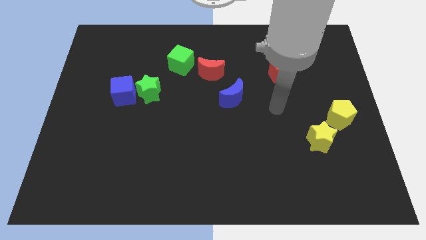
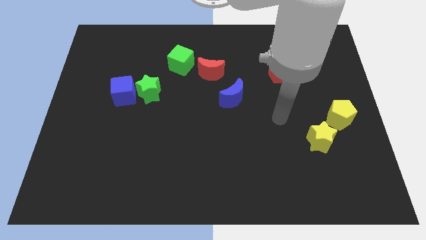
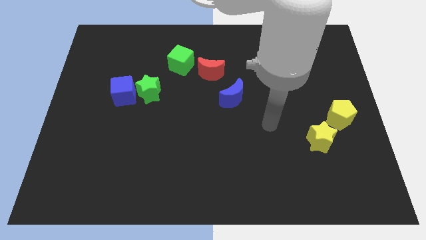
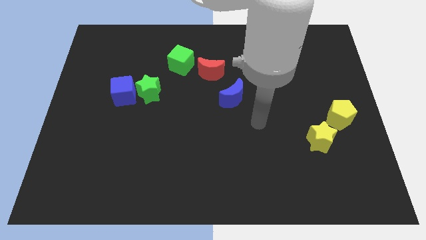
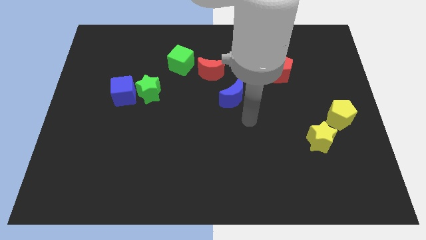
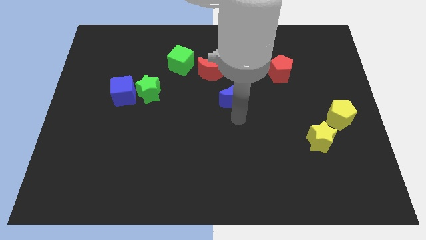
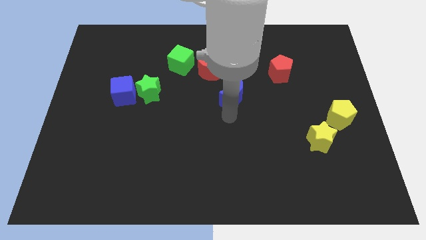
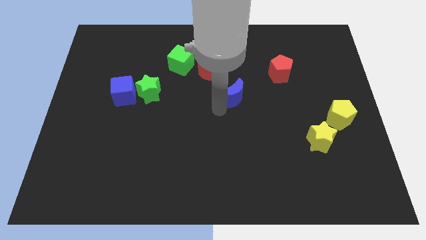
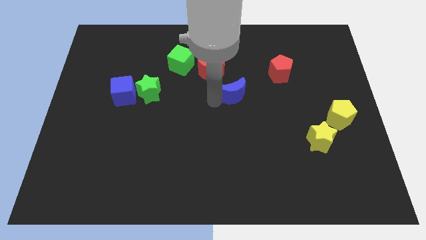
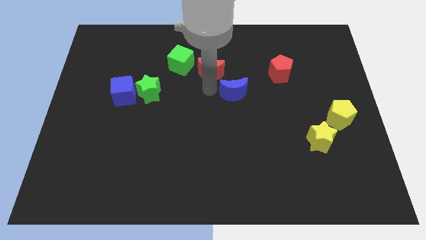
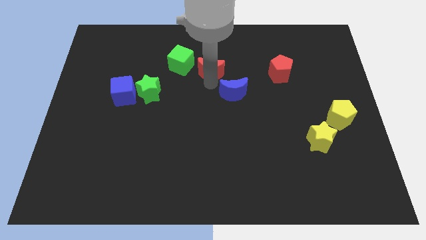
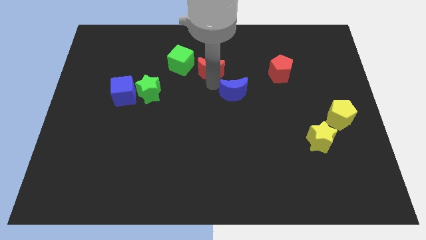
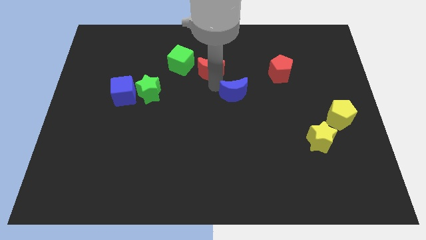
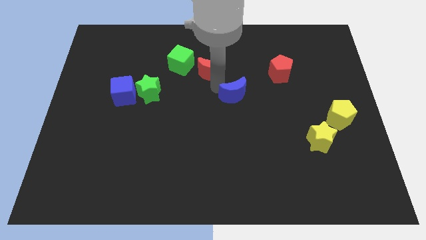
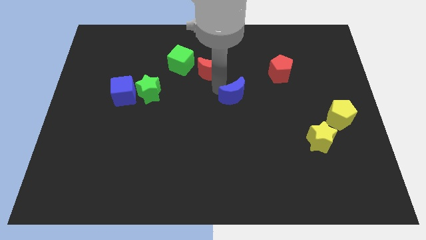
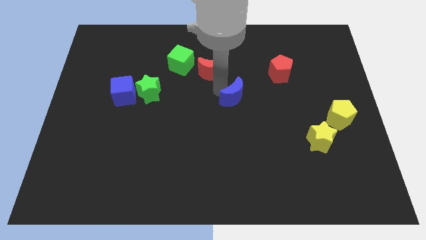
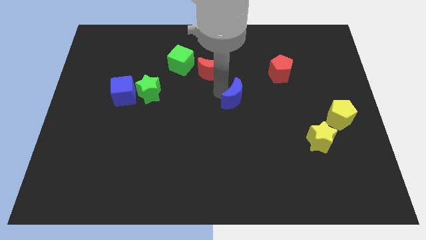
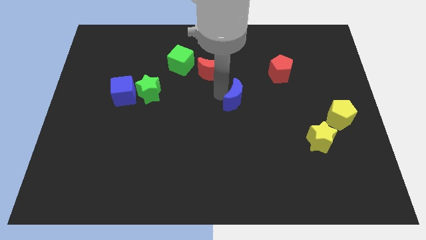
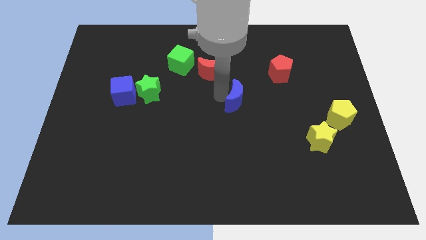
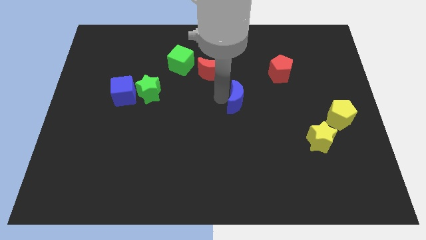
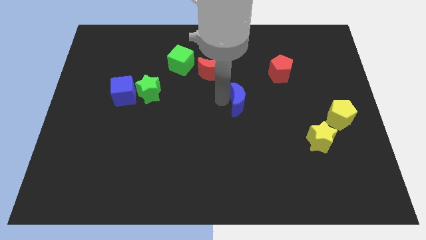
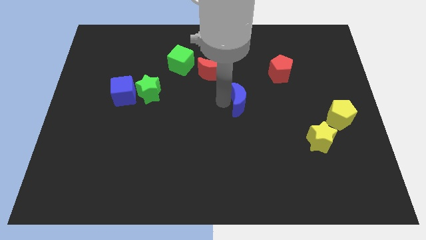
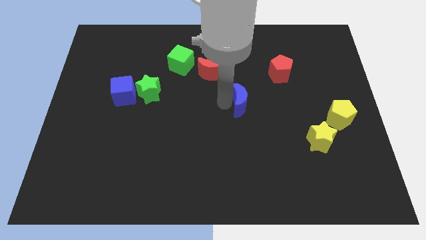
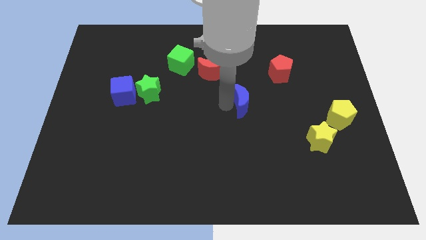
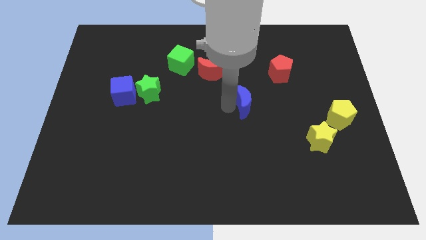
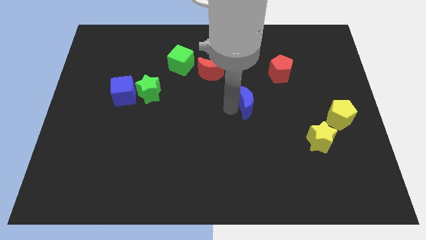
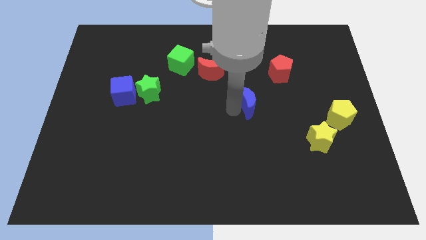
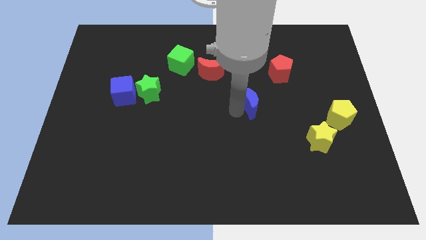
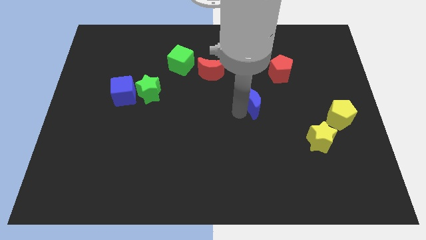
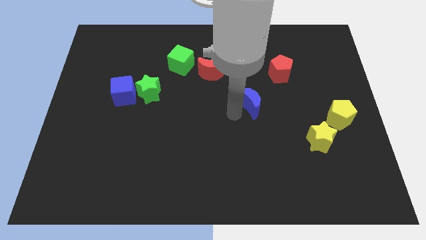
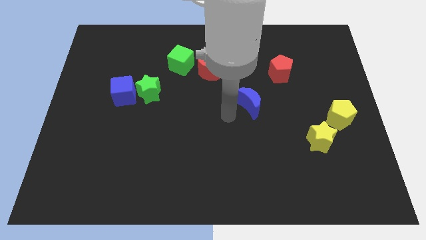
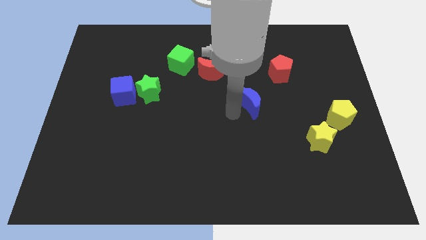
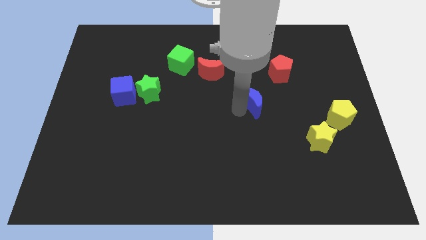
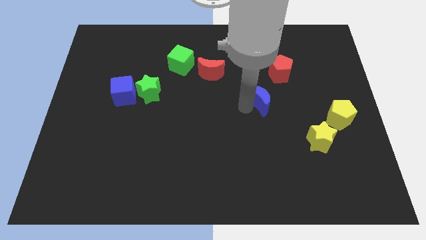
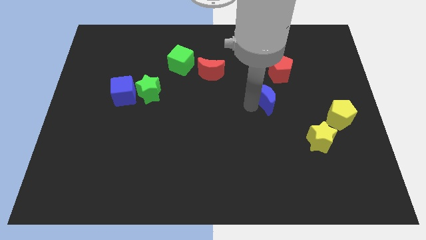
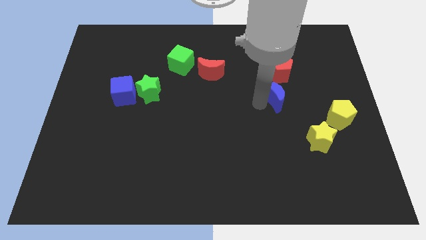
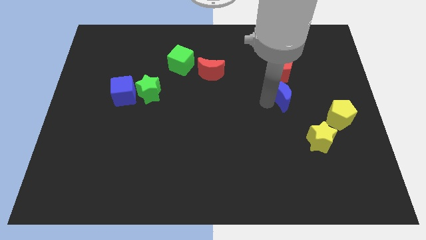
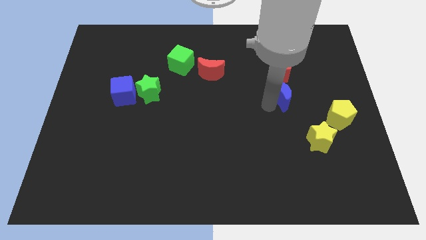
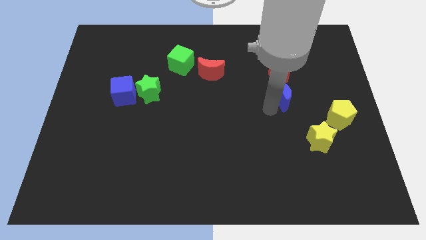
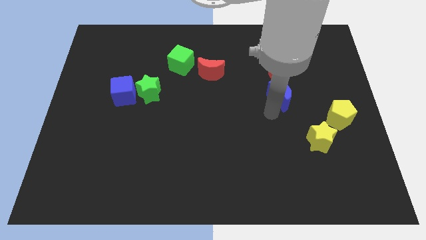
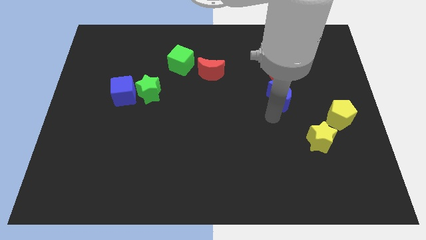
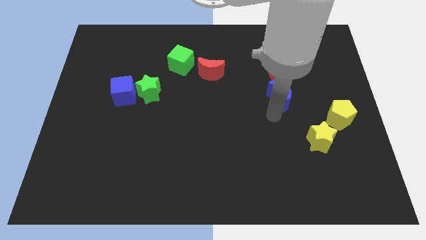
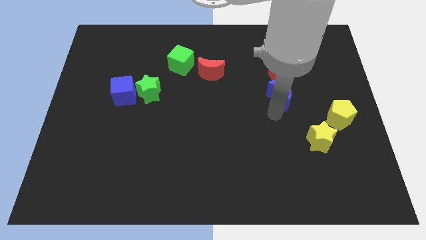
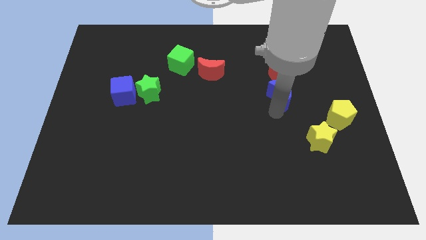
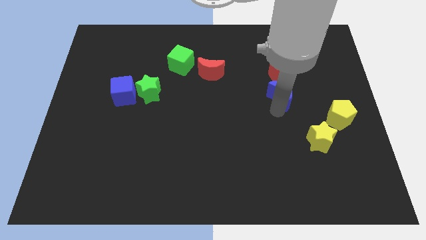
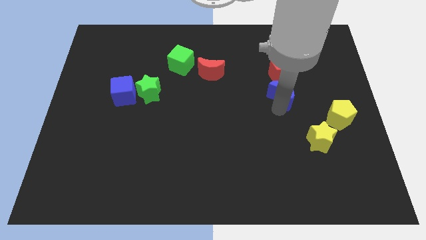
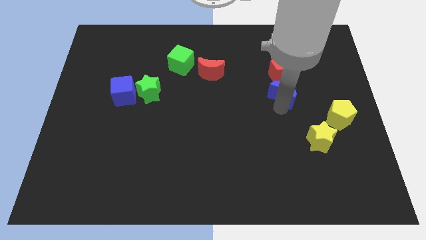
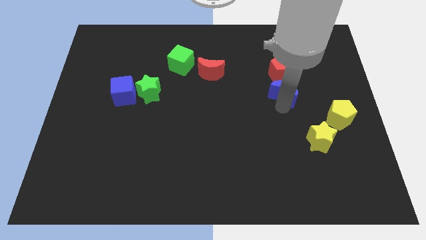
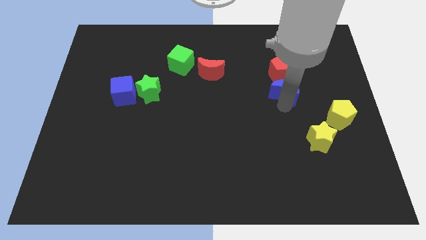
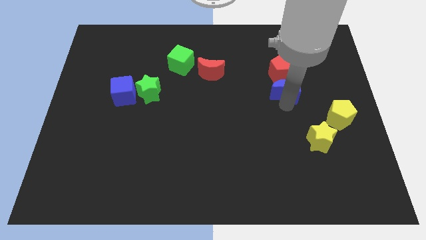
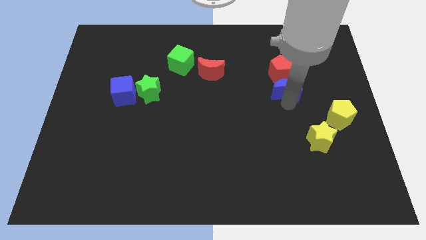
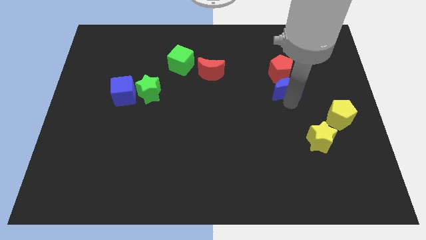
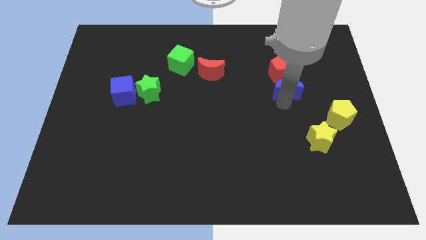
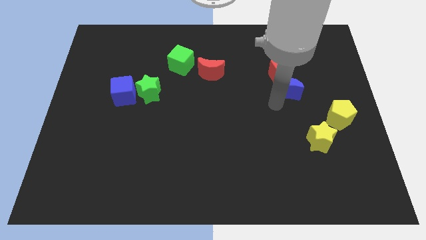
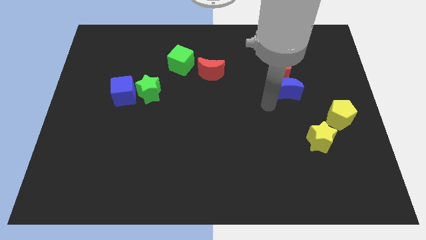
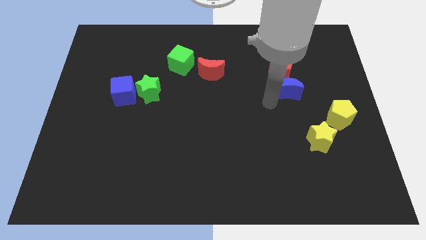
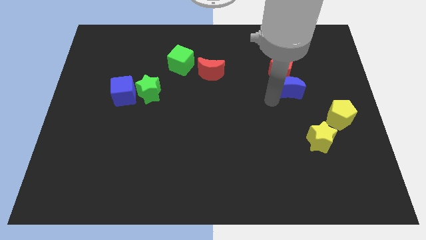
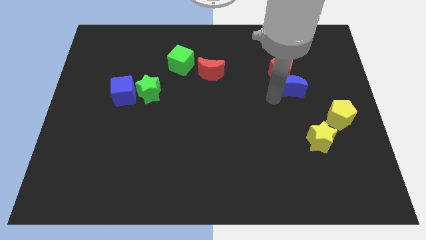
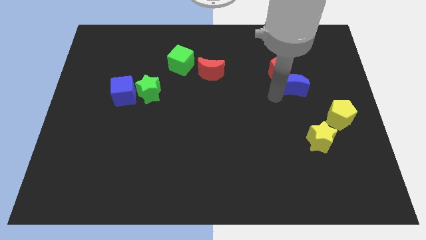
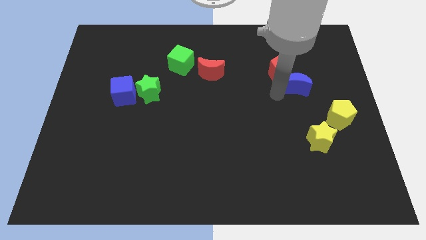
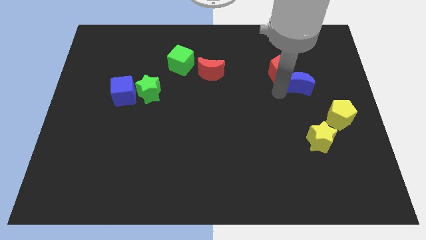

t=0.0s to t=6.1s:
put the blue moon to the right of the red pentagon
